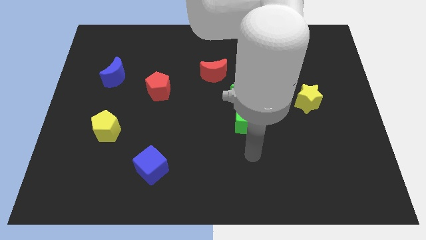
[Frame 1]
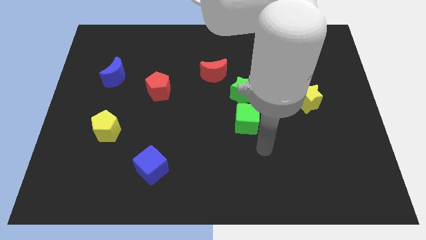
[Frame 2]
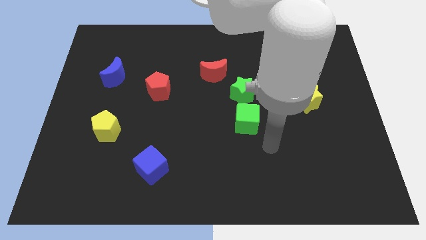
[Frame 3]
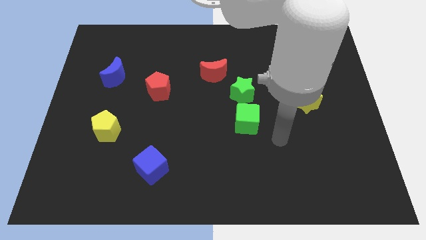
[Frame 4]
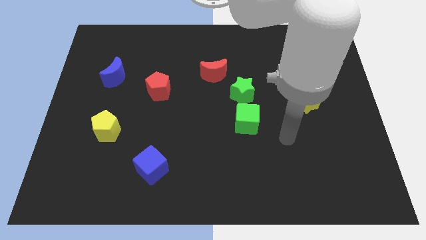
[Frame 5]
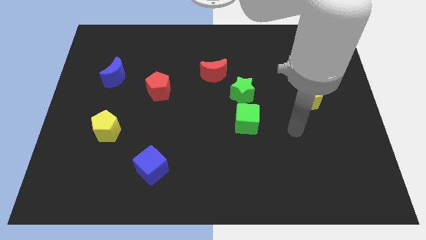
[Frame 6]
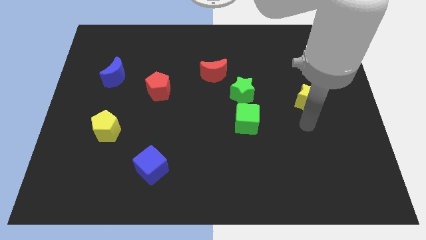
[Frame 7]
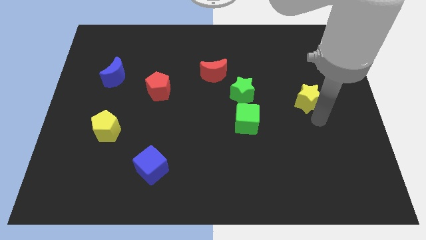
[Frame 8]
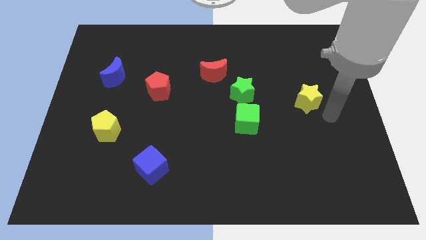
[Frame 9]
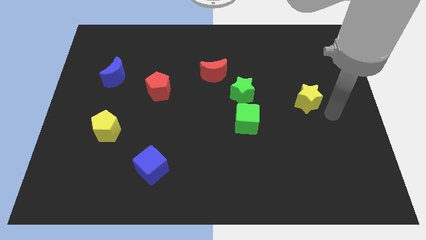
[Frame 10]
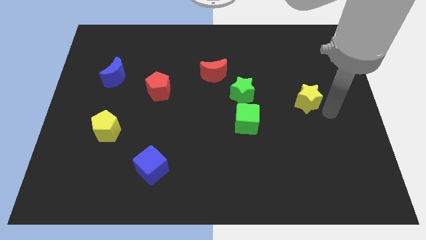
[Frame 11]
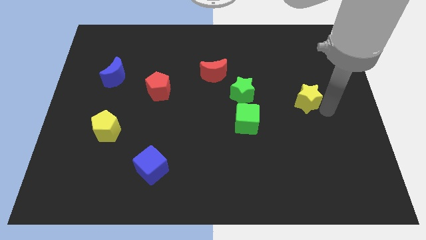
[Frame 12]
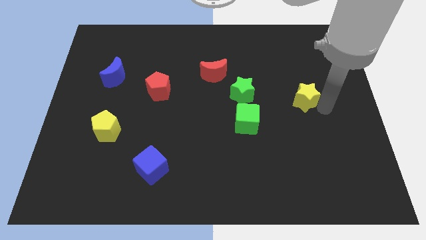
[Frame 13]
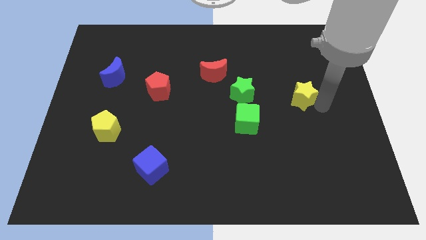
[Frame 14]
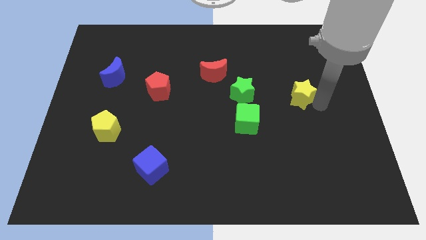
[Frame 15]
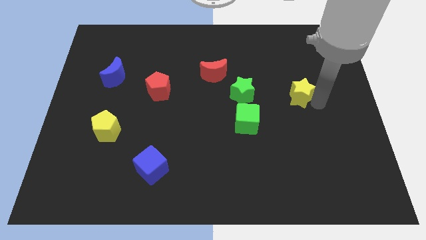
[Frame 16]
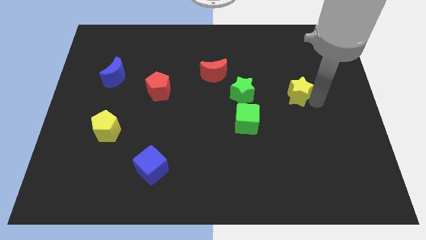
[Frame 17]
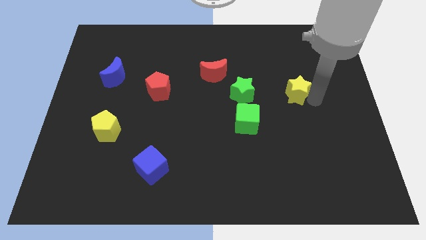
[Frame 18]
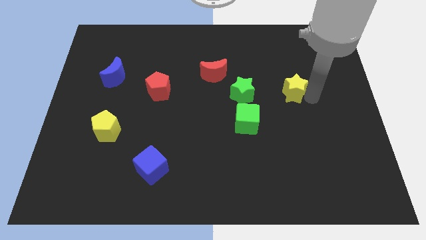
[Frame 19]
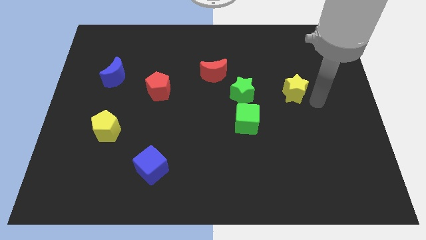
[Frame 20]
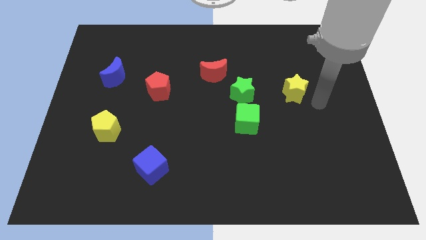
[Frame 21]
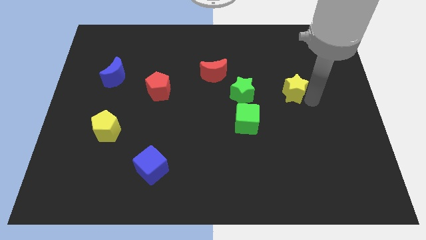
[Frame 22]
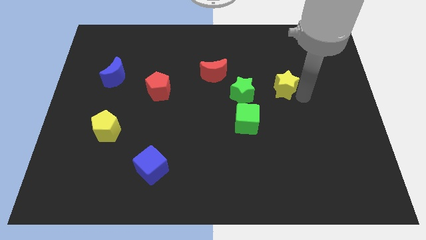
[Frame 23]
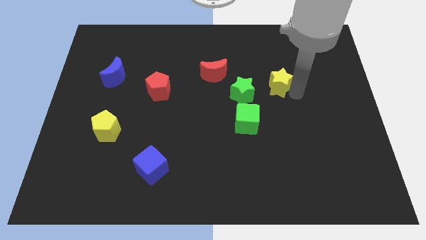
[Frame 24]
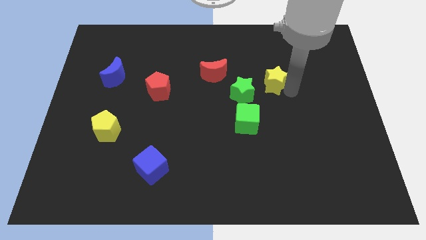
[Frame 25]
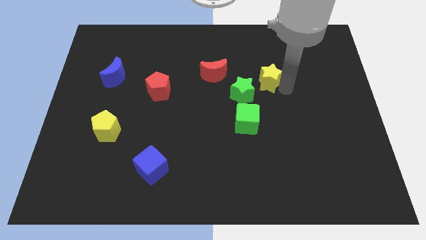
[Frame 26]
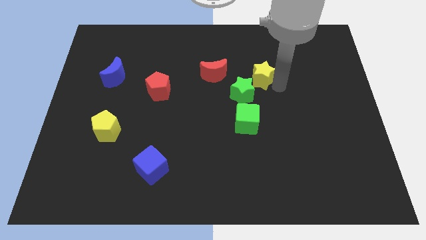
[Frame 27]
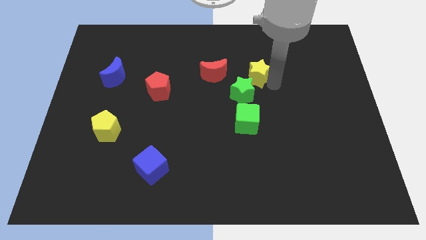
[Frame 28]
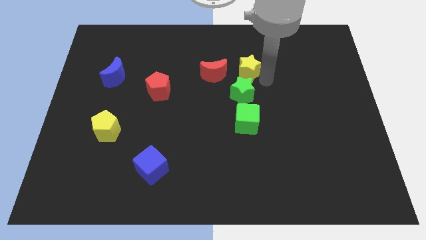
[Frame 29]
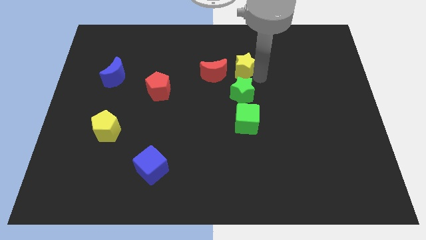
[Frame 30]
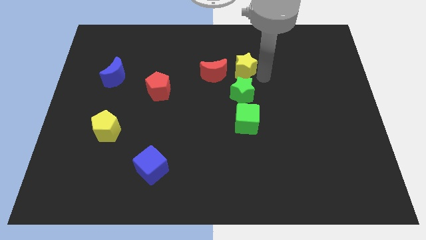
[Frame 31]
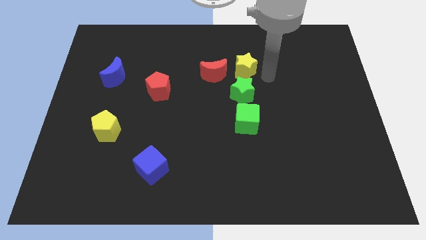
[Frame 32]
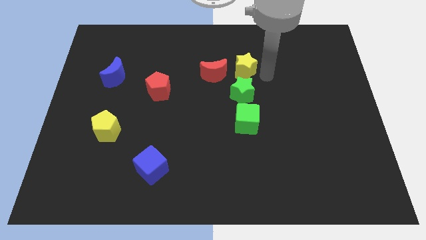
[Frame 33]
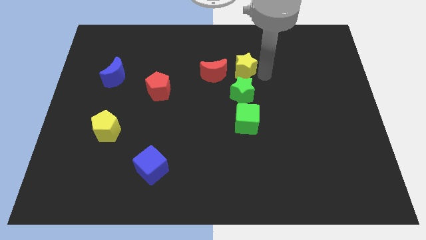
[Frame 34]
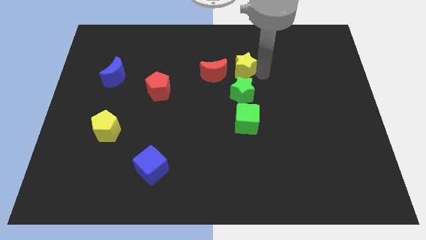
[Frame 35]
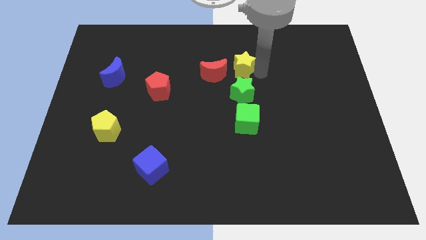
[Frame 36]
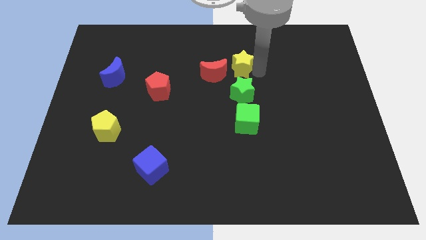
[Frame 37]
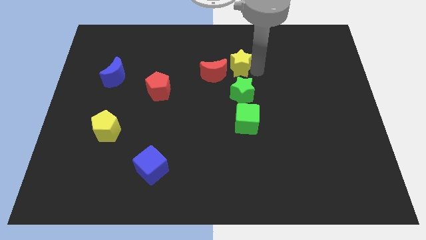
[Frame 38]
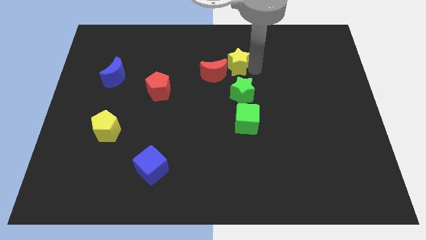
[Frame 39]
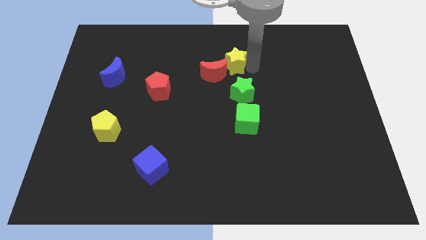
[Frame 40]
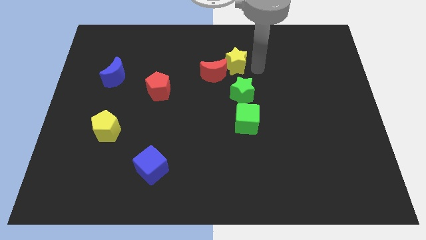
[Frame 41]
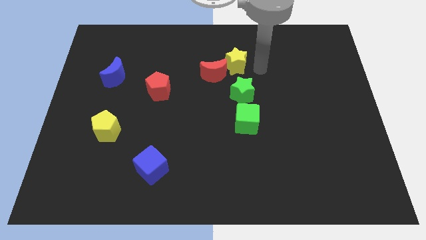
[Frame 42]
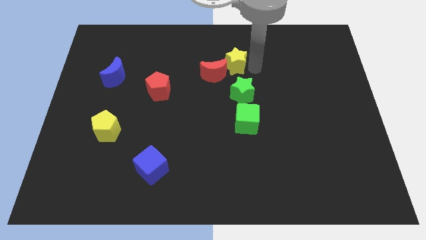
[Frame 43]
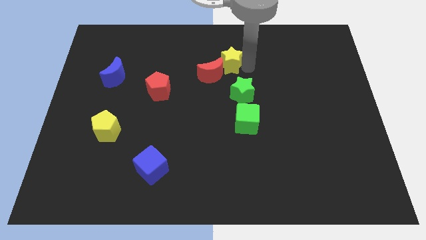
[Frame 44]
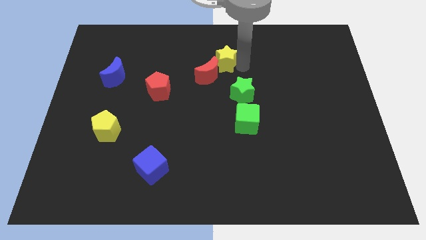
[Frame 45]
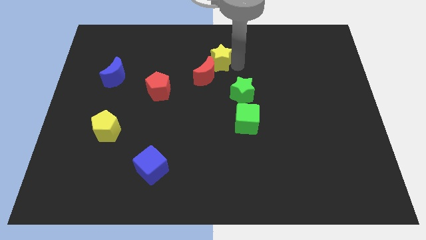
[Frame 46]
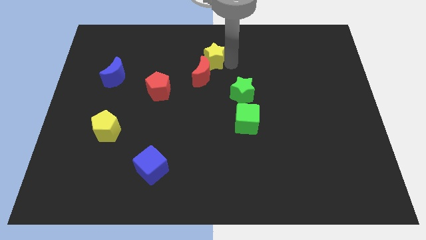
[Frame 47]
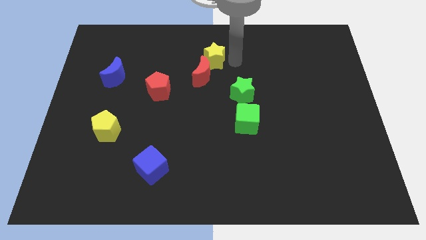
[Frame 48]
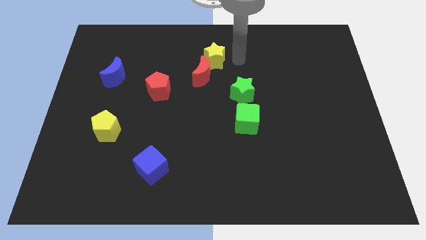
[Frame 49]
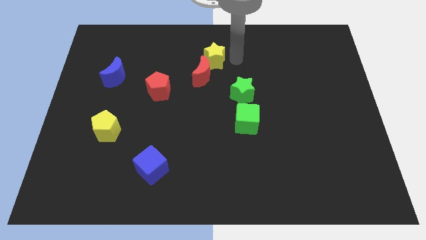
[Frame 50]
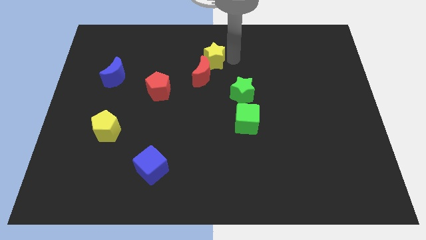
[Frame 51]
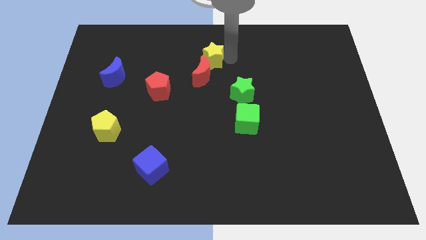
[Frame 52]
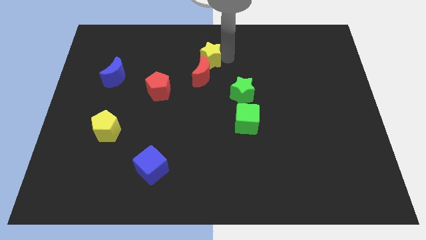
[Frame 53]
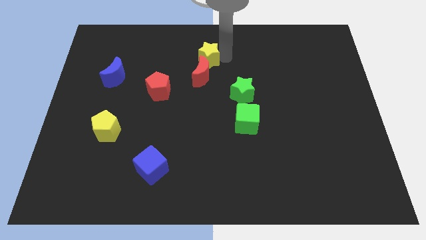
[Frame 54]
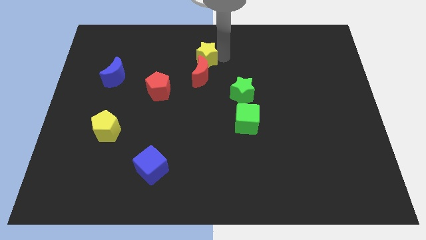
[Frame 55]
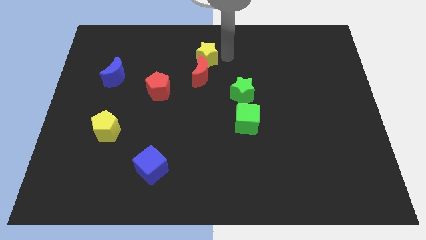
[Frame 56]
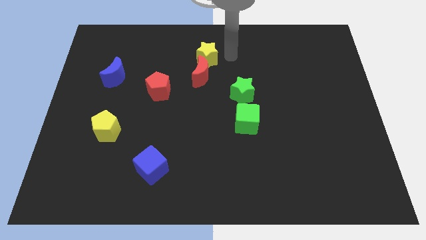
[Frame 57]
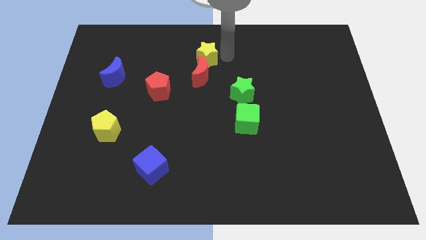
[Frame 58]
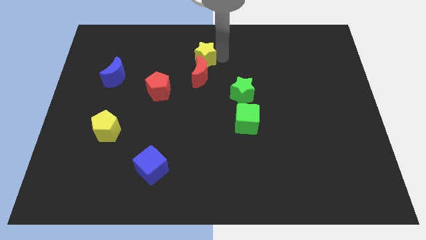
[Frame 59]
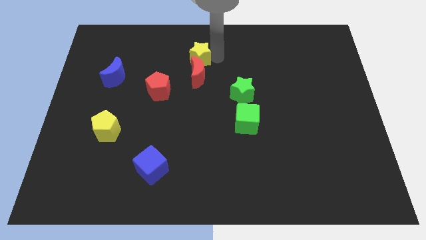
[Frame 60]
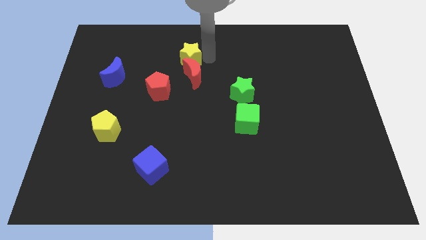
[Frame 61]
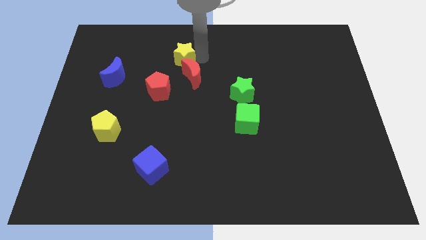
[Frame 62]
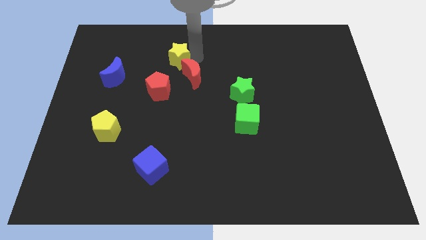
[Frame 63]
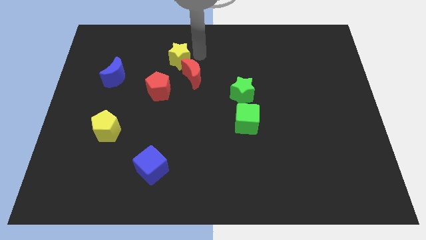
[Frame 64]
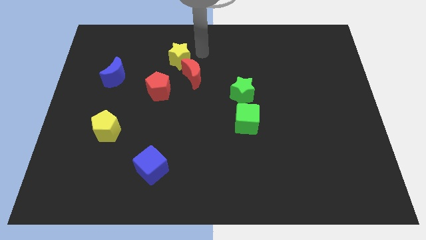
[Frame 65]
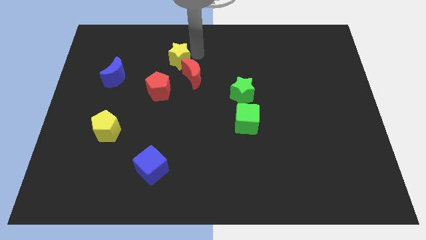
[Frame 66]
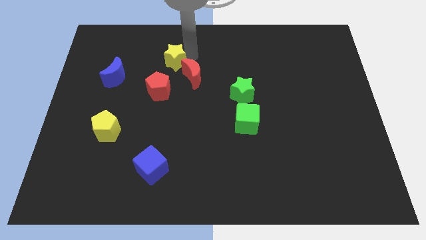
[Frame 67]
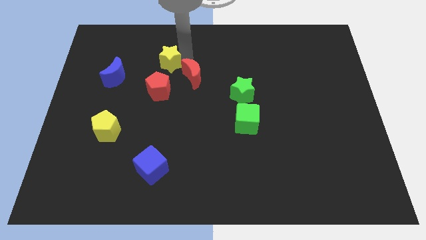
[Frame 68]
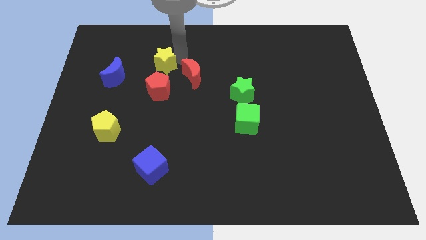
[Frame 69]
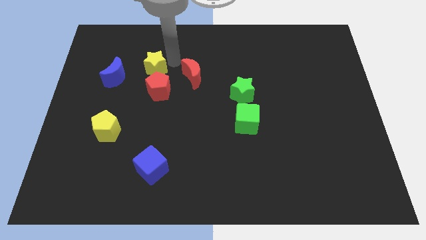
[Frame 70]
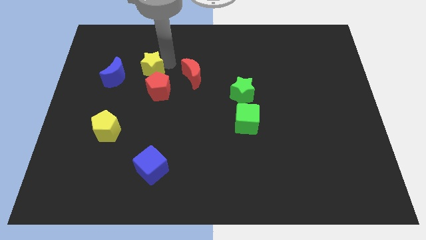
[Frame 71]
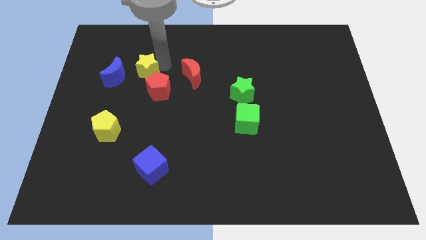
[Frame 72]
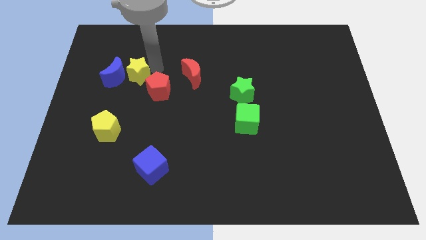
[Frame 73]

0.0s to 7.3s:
move the yellow star close to the blue moon

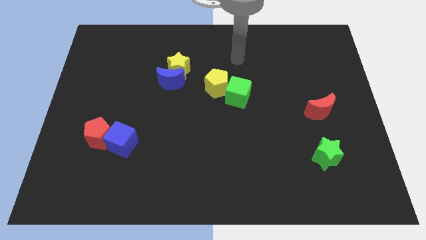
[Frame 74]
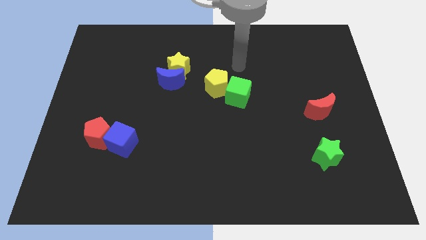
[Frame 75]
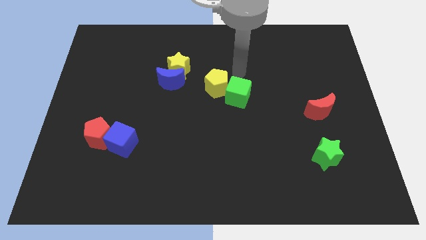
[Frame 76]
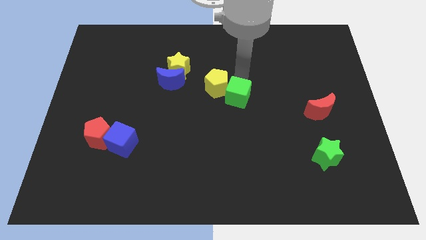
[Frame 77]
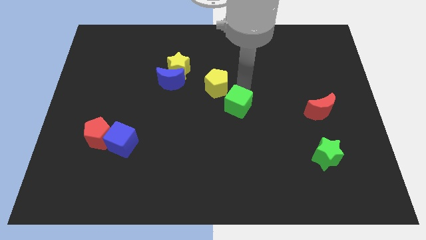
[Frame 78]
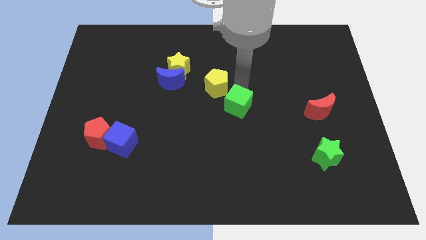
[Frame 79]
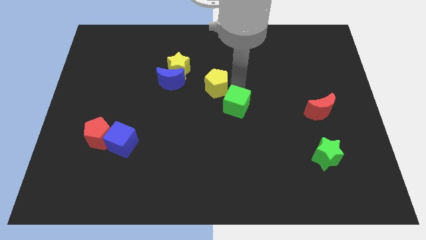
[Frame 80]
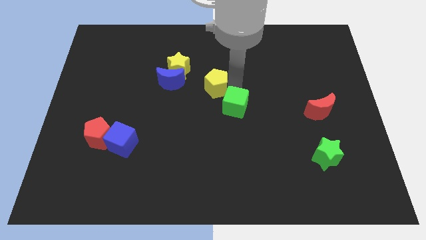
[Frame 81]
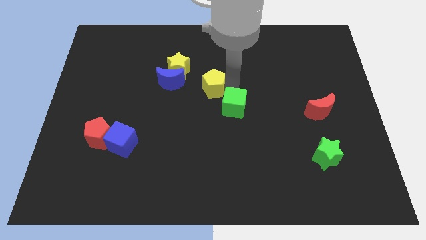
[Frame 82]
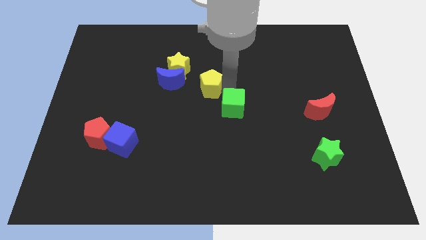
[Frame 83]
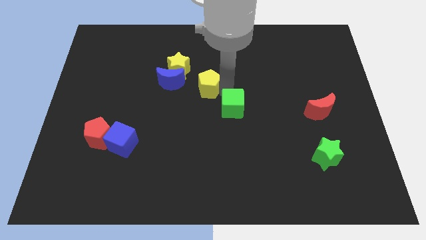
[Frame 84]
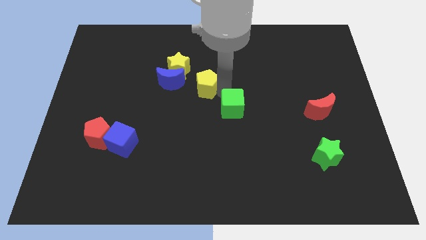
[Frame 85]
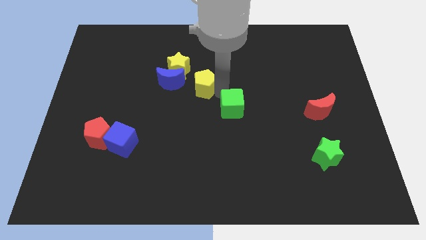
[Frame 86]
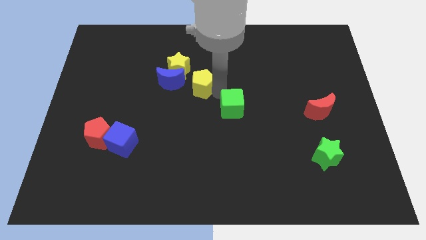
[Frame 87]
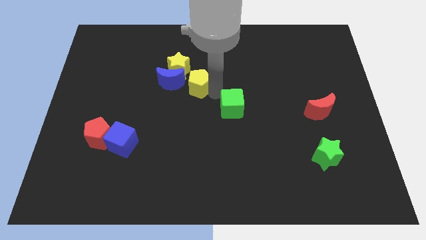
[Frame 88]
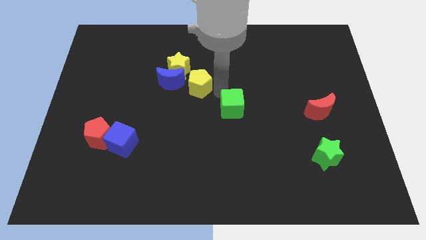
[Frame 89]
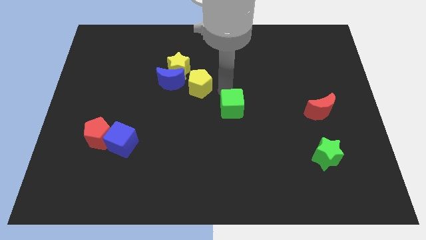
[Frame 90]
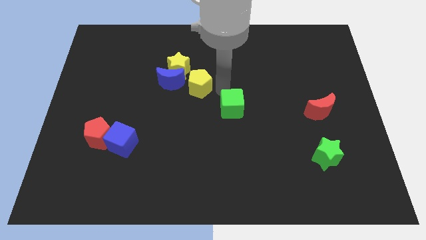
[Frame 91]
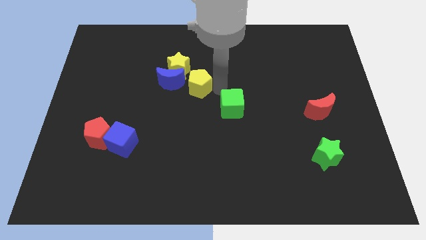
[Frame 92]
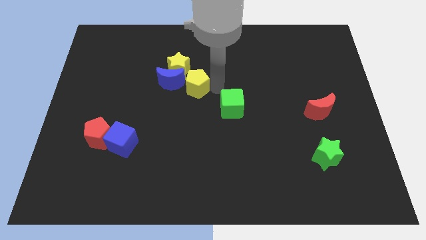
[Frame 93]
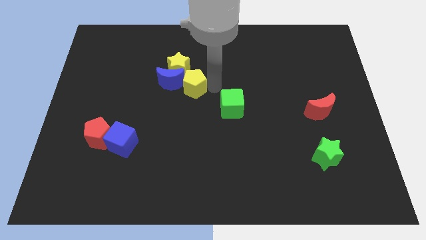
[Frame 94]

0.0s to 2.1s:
move the yellow pentagon to the blue moon
